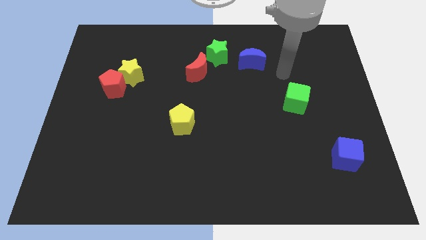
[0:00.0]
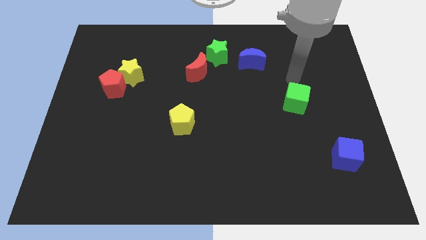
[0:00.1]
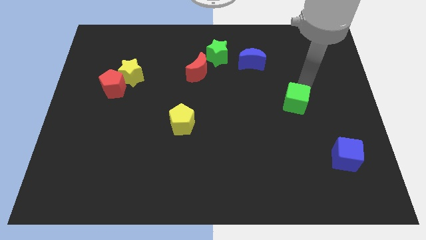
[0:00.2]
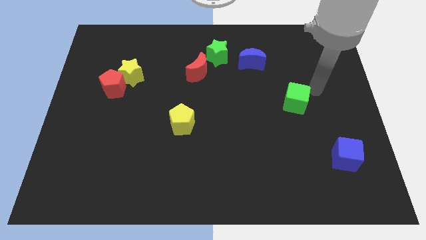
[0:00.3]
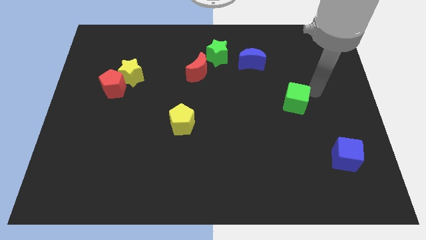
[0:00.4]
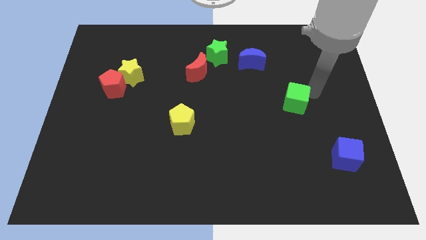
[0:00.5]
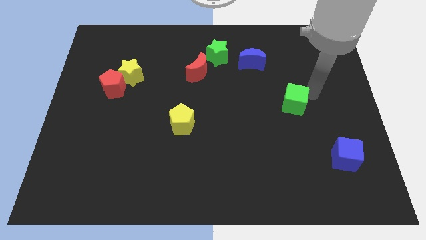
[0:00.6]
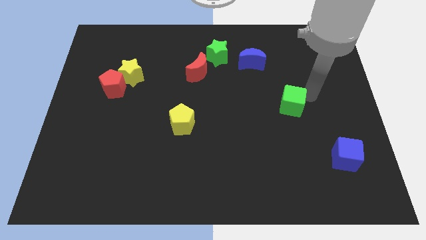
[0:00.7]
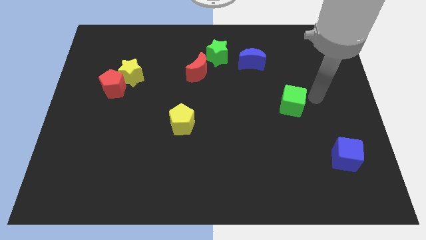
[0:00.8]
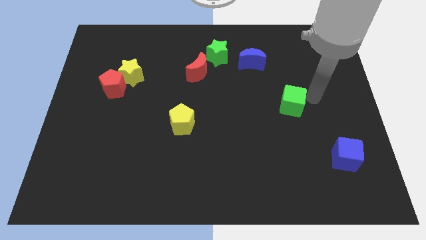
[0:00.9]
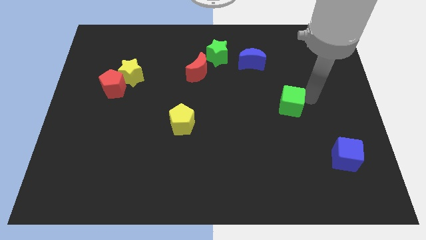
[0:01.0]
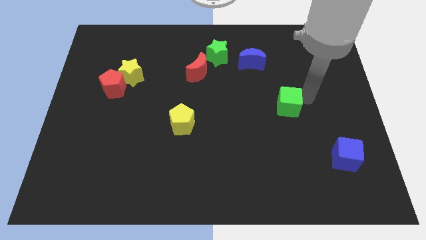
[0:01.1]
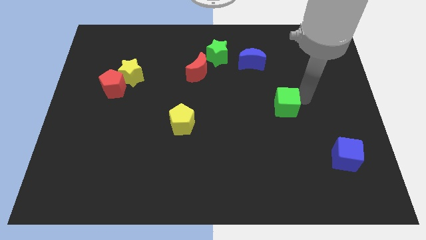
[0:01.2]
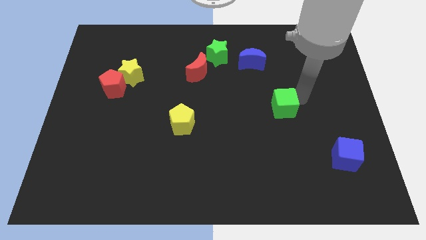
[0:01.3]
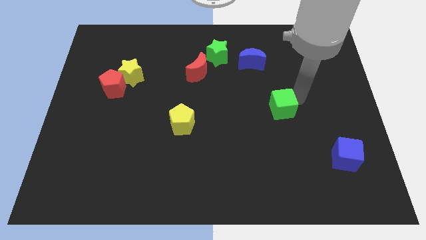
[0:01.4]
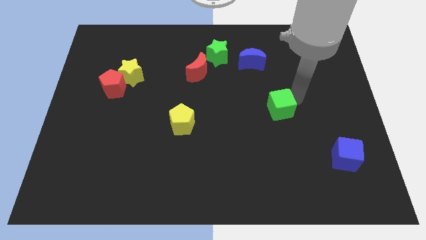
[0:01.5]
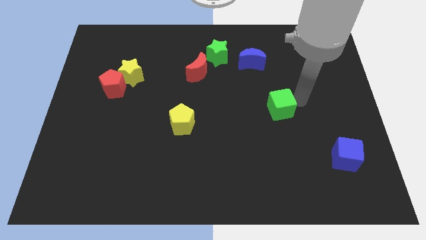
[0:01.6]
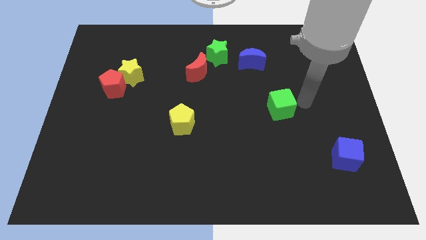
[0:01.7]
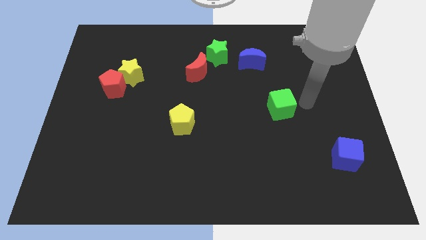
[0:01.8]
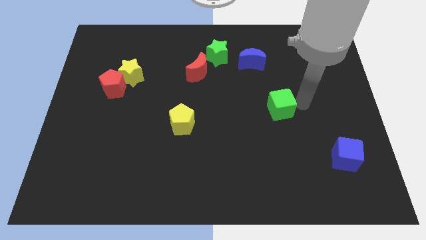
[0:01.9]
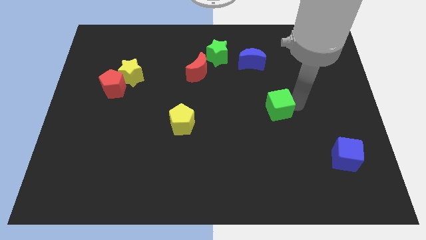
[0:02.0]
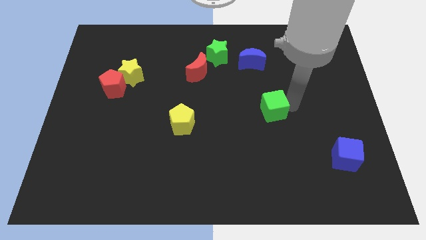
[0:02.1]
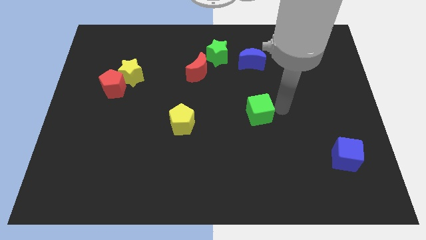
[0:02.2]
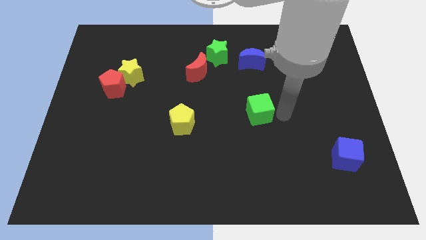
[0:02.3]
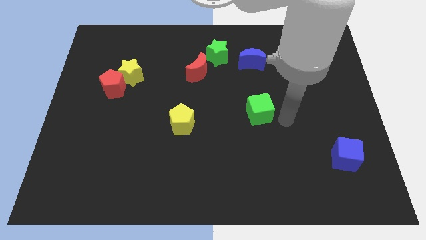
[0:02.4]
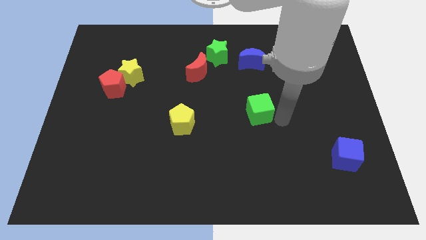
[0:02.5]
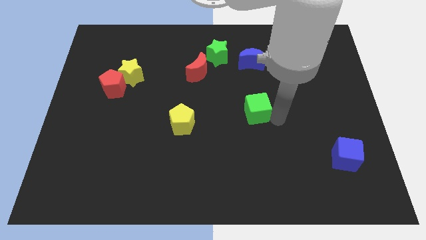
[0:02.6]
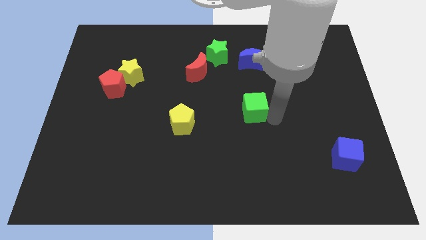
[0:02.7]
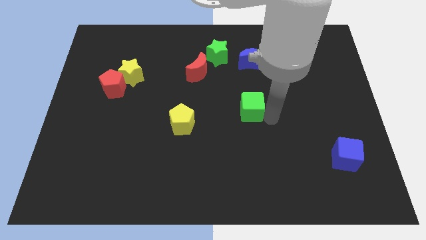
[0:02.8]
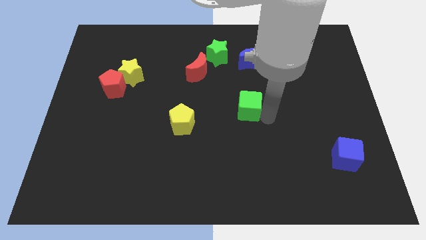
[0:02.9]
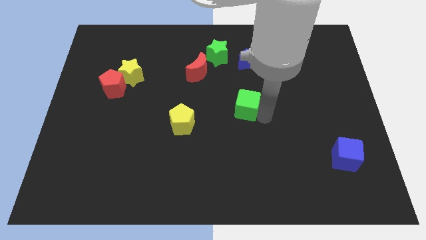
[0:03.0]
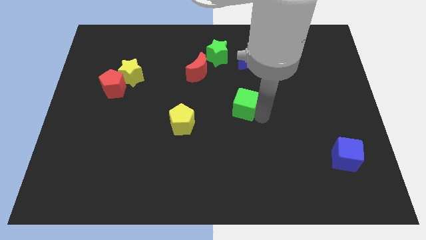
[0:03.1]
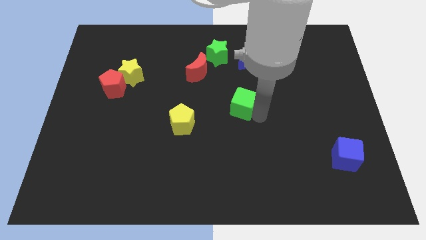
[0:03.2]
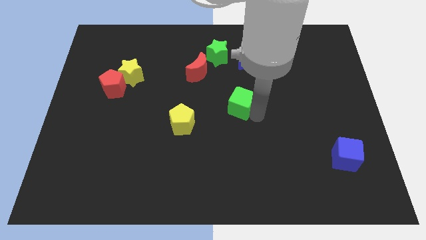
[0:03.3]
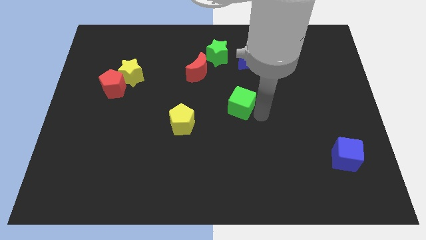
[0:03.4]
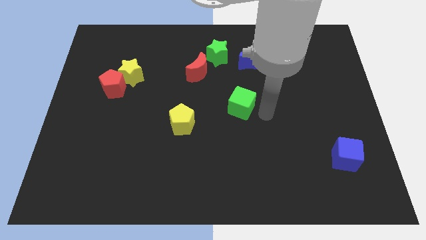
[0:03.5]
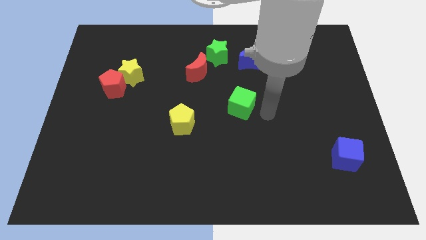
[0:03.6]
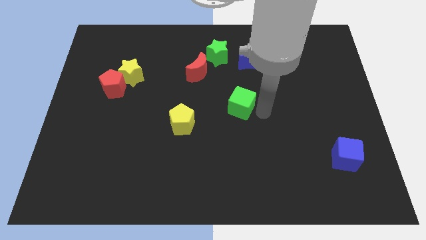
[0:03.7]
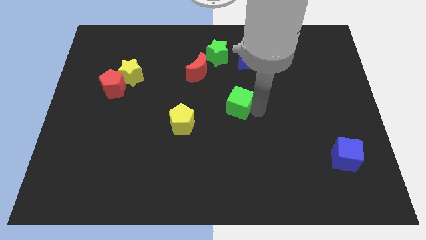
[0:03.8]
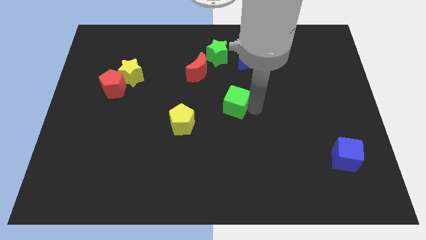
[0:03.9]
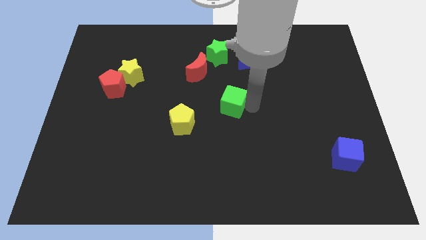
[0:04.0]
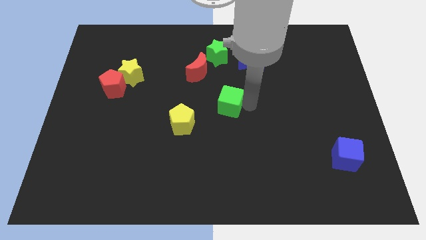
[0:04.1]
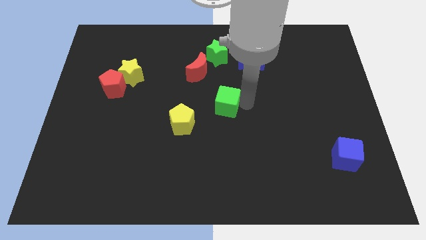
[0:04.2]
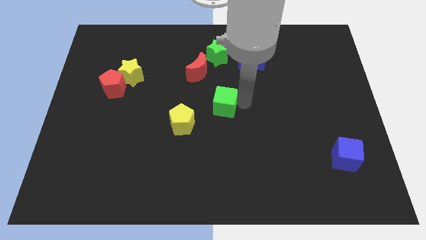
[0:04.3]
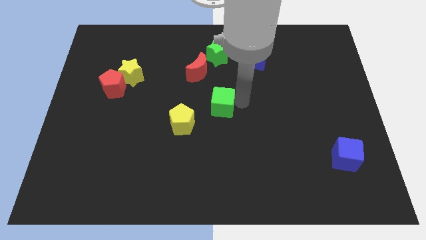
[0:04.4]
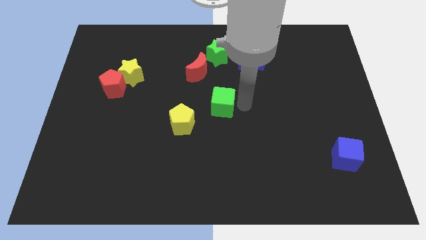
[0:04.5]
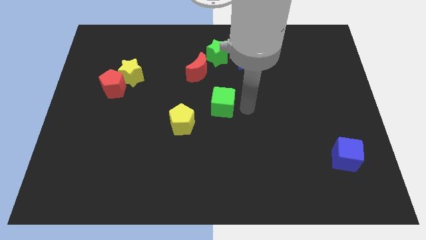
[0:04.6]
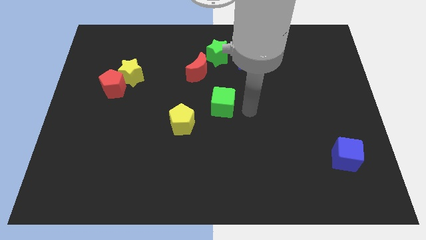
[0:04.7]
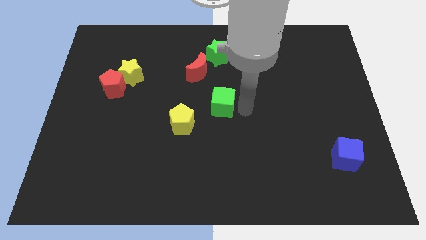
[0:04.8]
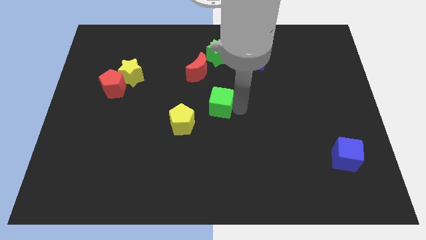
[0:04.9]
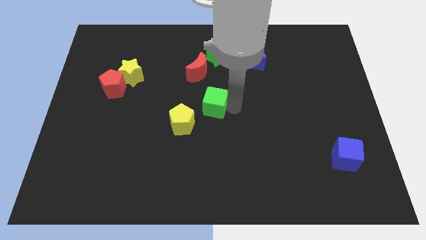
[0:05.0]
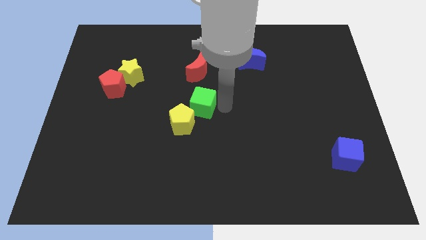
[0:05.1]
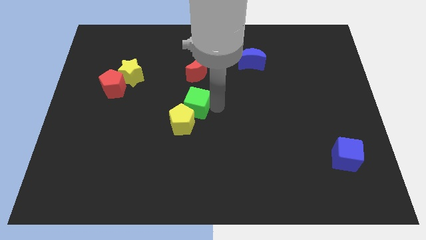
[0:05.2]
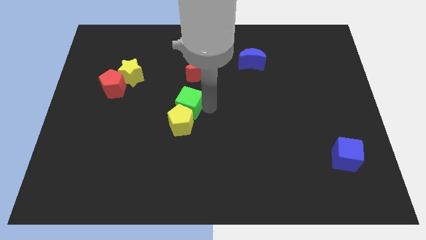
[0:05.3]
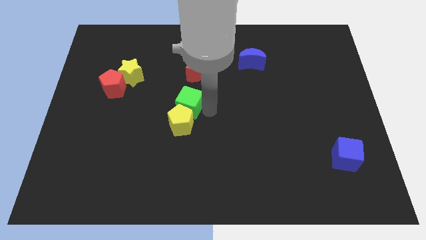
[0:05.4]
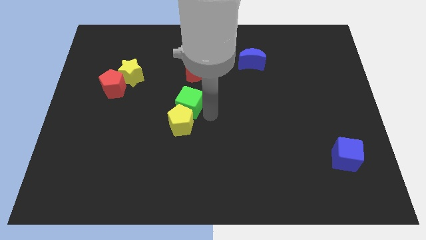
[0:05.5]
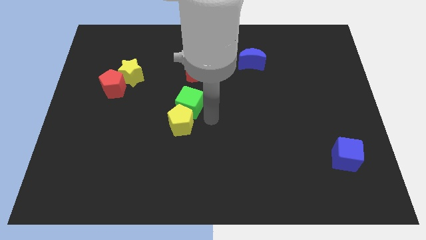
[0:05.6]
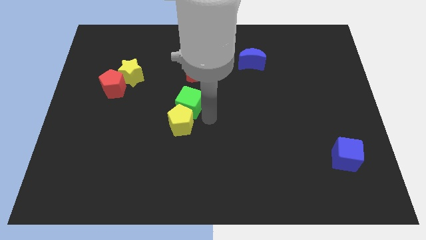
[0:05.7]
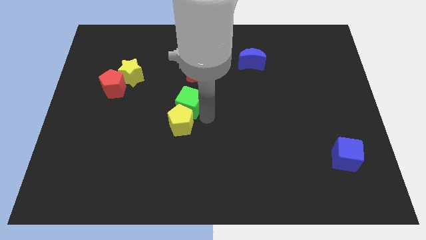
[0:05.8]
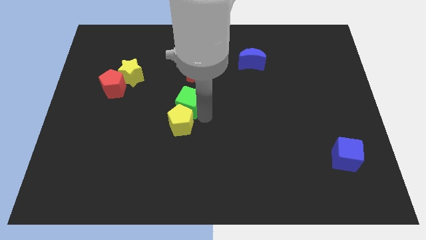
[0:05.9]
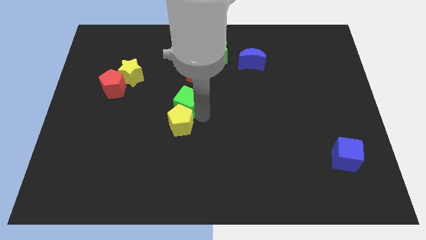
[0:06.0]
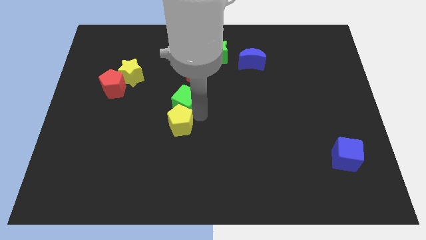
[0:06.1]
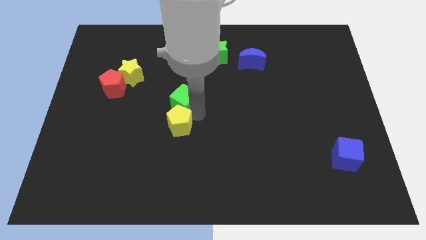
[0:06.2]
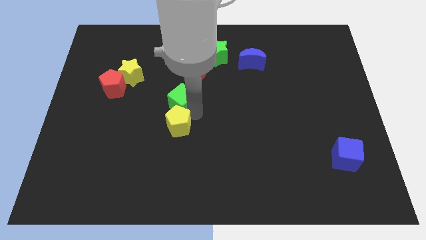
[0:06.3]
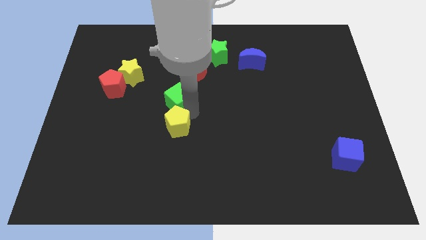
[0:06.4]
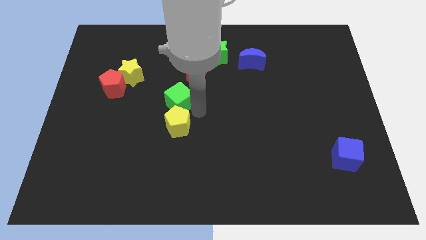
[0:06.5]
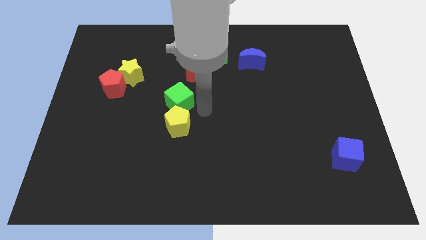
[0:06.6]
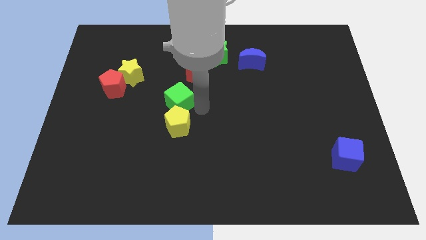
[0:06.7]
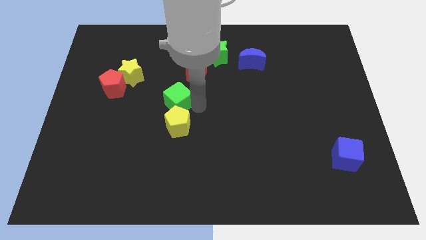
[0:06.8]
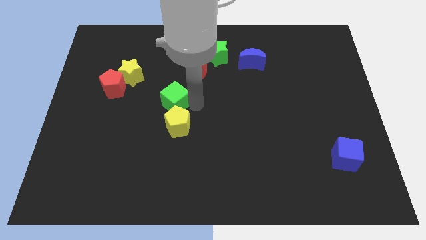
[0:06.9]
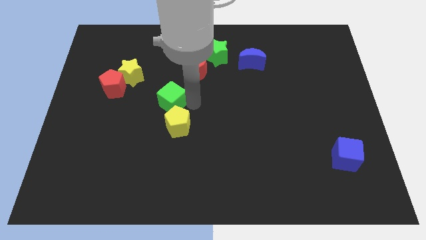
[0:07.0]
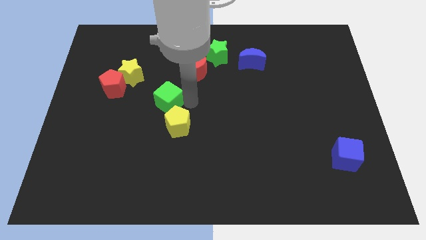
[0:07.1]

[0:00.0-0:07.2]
move the green cube diagonally down and to the right of the yellow star
